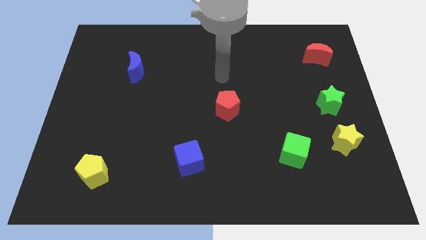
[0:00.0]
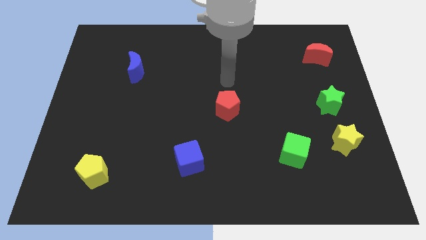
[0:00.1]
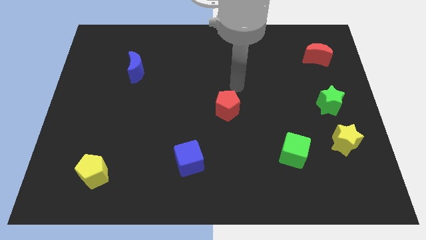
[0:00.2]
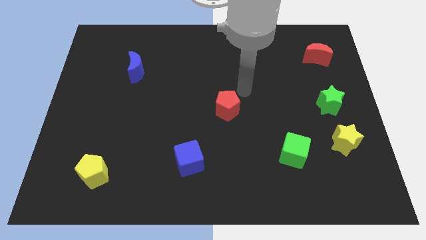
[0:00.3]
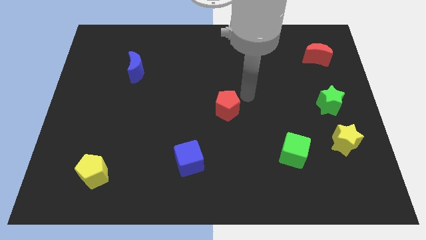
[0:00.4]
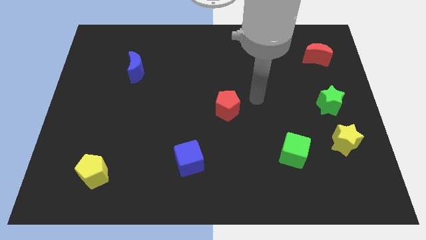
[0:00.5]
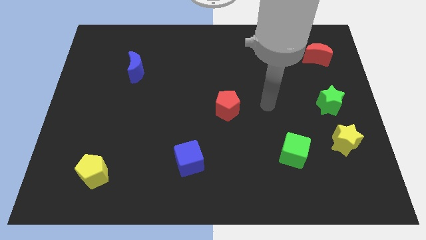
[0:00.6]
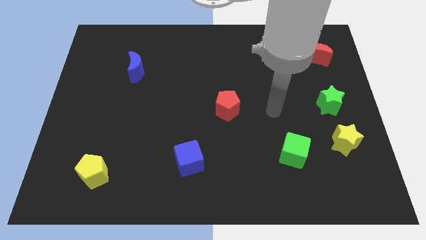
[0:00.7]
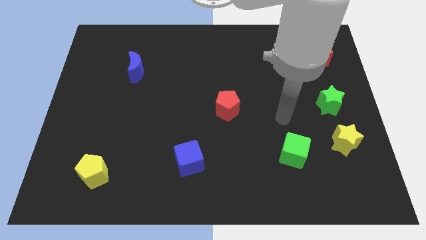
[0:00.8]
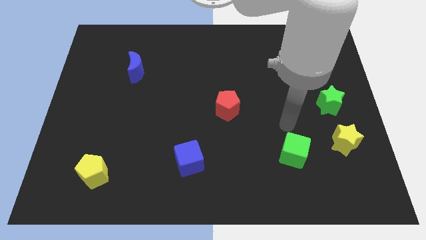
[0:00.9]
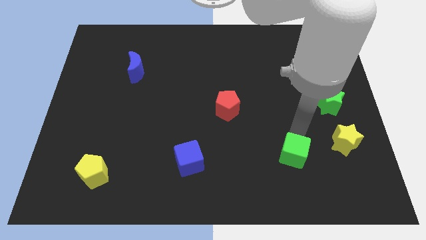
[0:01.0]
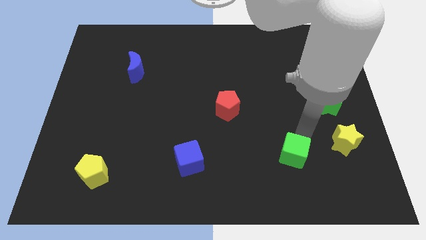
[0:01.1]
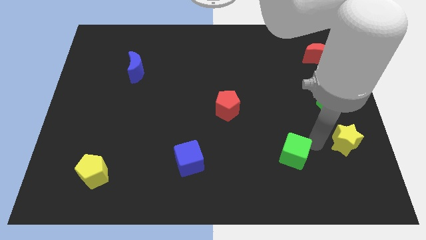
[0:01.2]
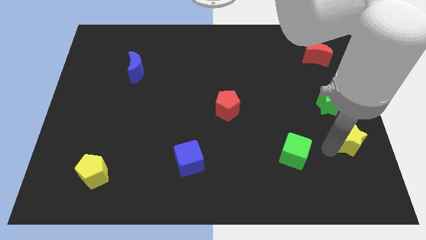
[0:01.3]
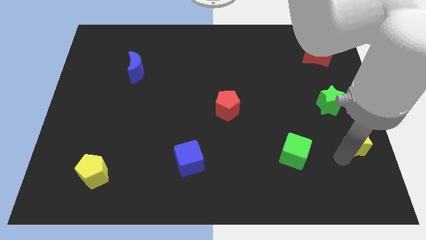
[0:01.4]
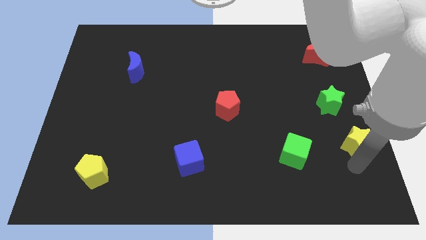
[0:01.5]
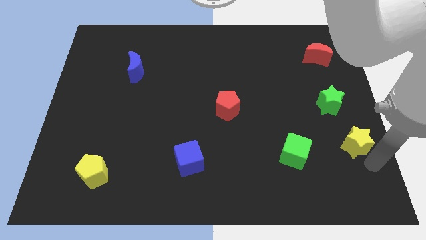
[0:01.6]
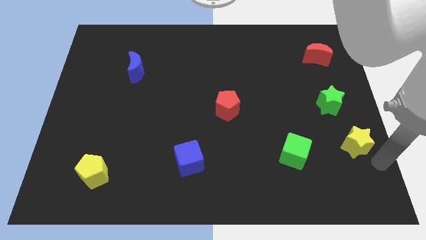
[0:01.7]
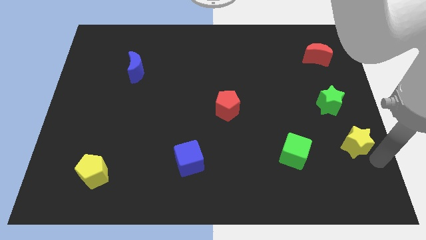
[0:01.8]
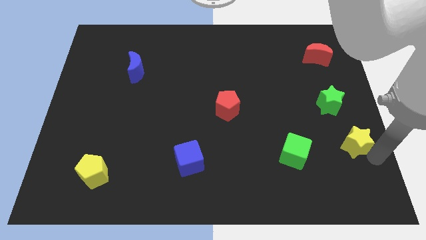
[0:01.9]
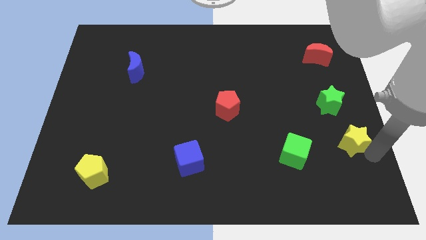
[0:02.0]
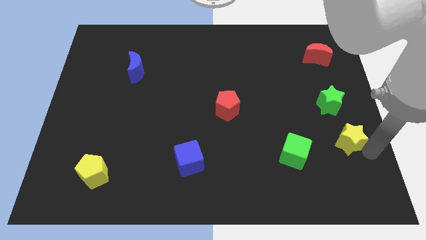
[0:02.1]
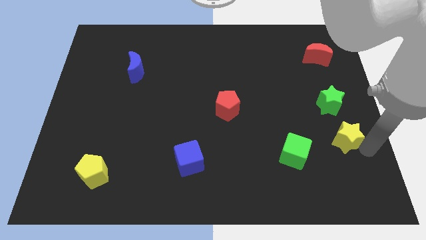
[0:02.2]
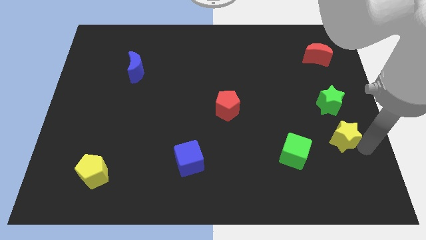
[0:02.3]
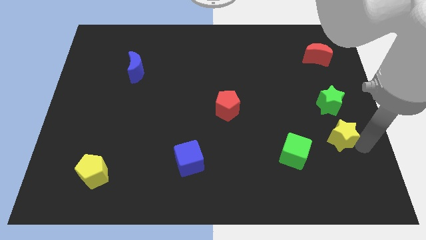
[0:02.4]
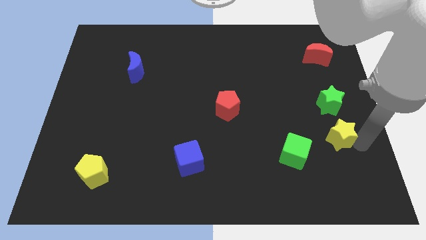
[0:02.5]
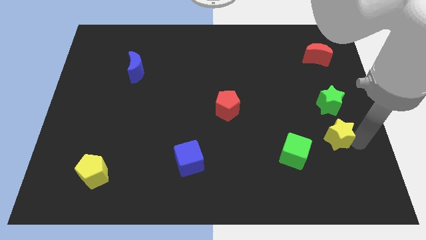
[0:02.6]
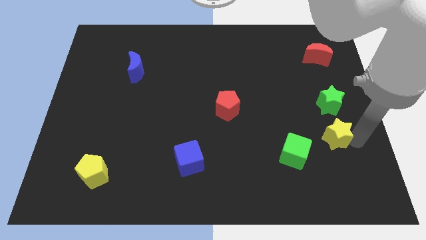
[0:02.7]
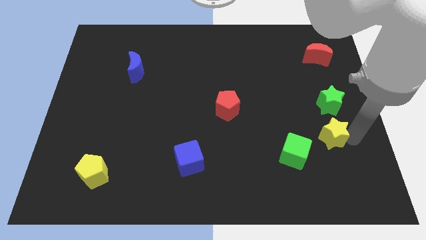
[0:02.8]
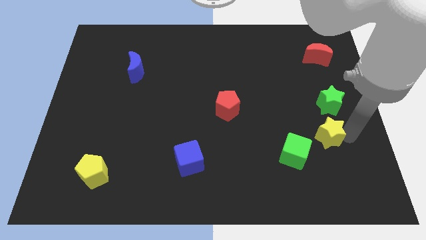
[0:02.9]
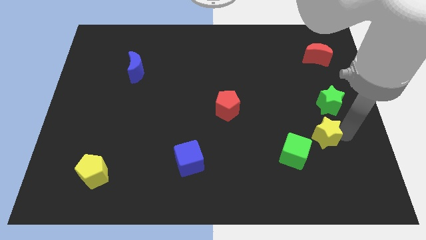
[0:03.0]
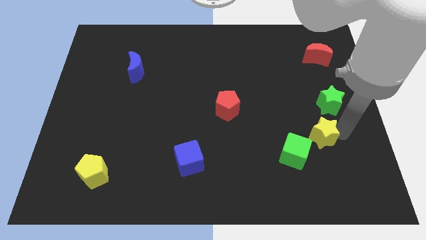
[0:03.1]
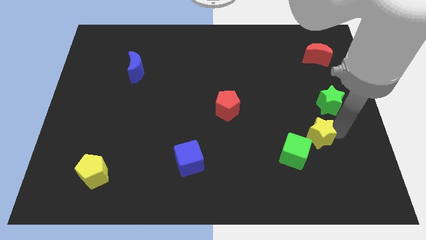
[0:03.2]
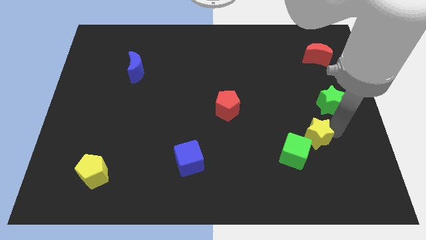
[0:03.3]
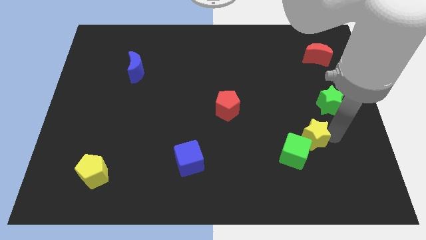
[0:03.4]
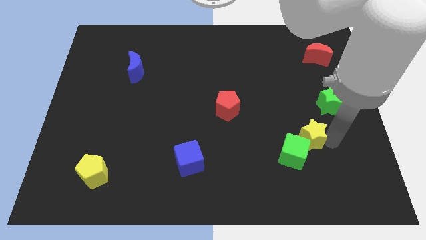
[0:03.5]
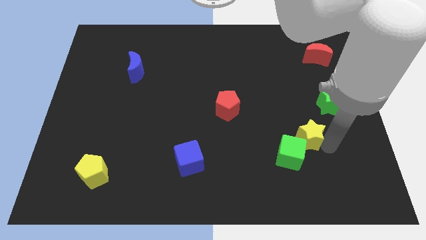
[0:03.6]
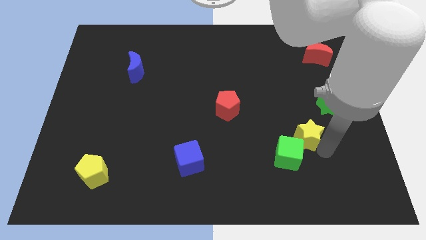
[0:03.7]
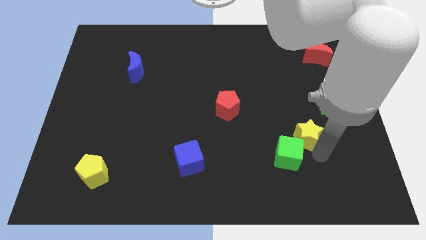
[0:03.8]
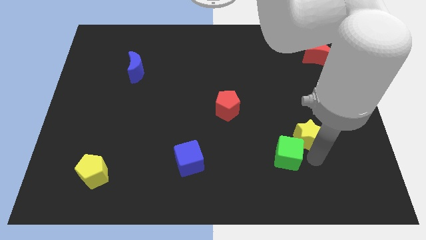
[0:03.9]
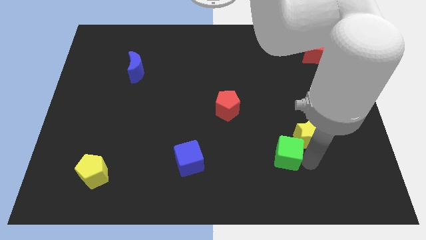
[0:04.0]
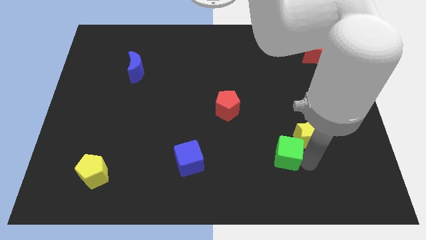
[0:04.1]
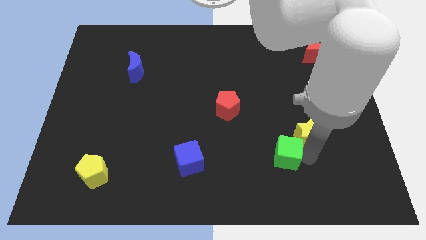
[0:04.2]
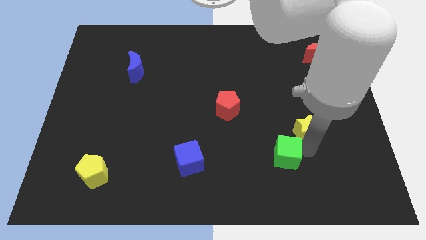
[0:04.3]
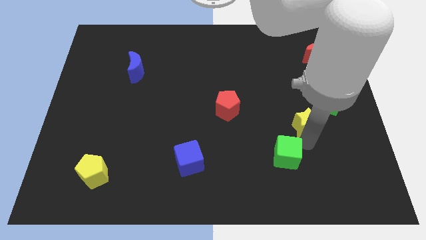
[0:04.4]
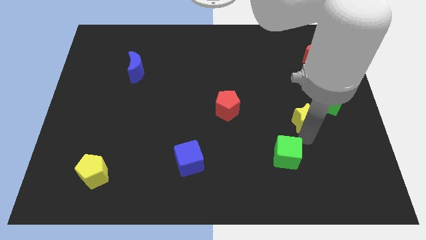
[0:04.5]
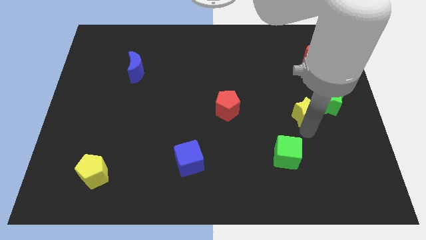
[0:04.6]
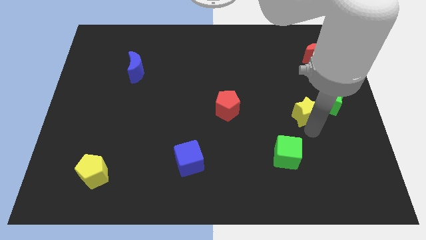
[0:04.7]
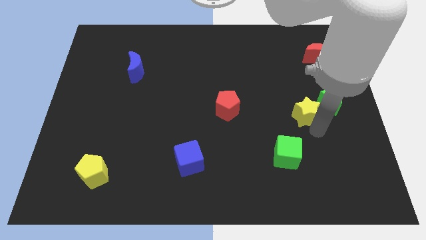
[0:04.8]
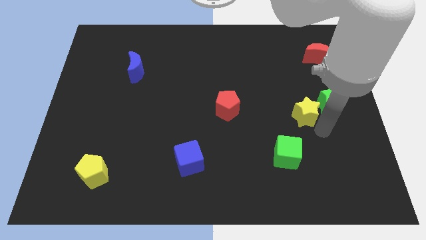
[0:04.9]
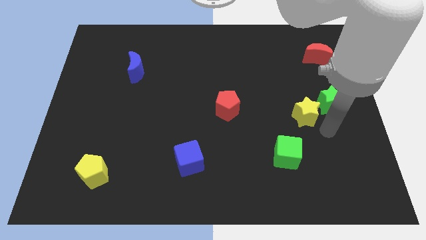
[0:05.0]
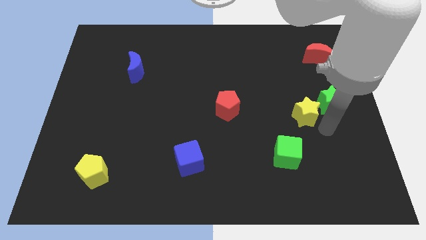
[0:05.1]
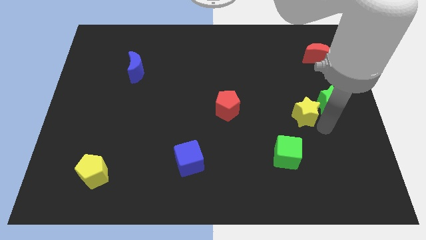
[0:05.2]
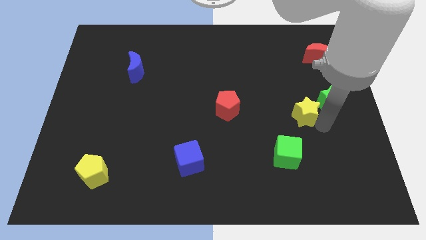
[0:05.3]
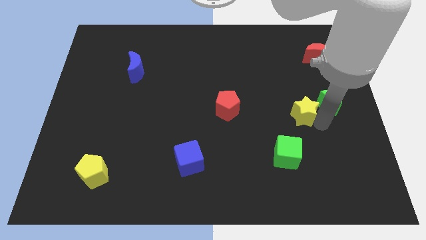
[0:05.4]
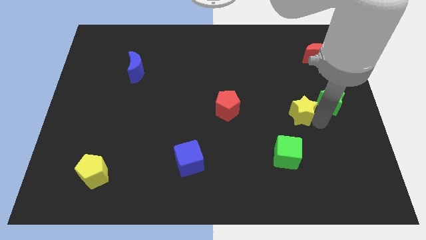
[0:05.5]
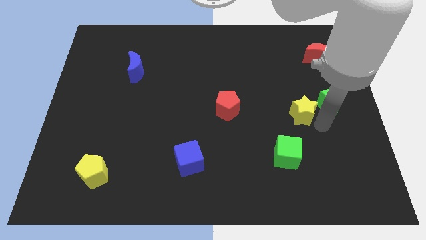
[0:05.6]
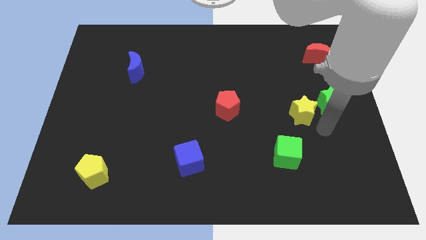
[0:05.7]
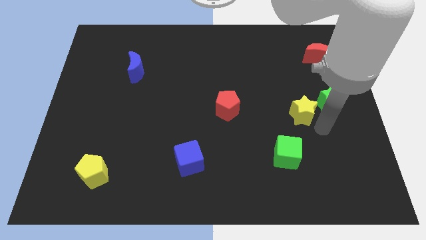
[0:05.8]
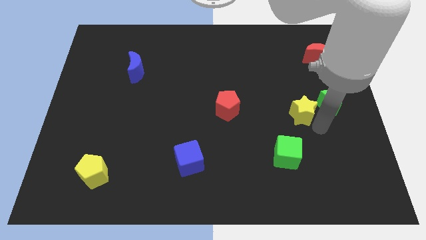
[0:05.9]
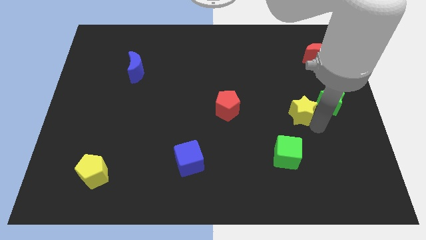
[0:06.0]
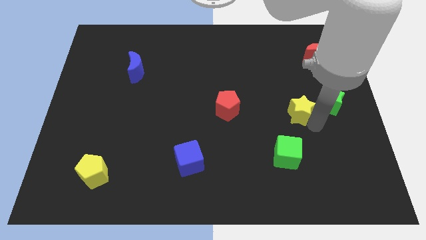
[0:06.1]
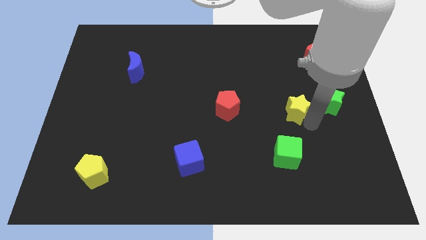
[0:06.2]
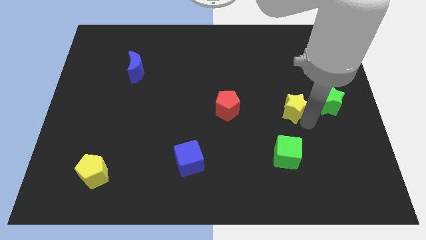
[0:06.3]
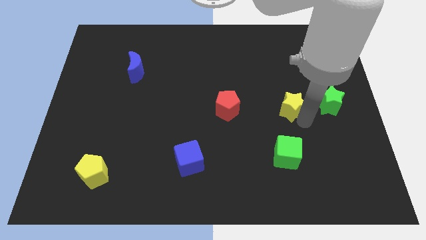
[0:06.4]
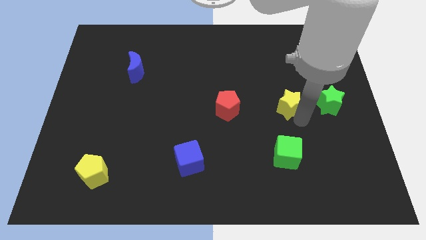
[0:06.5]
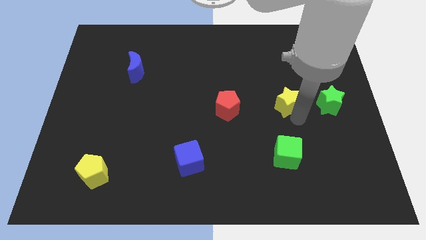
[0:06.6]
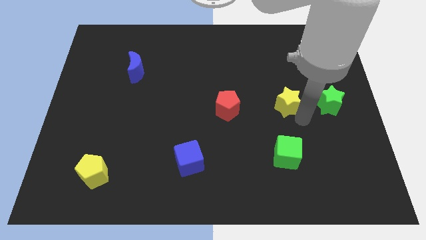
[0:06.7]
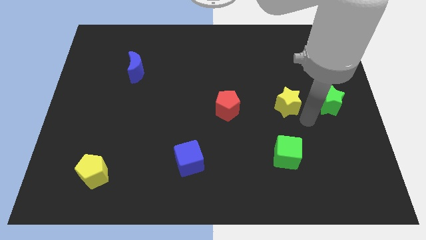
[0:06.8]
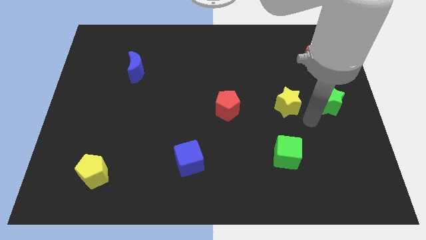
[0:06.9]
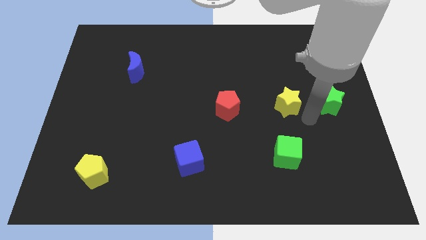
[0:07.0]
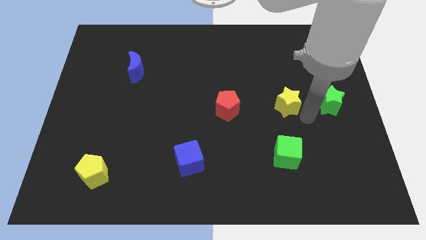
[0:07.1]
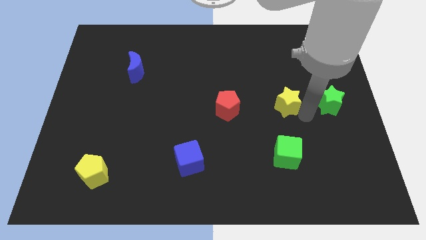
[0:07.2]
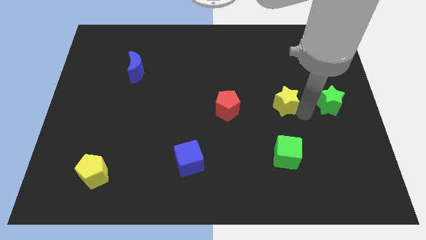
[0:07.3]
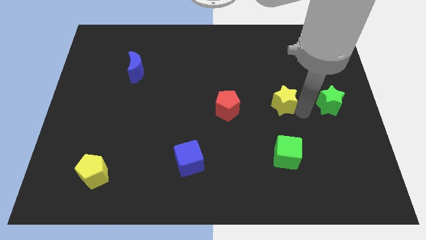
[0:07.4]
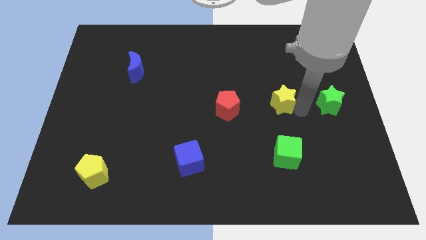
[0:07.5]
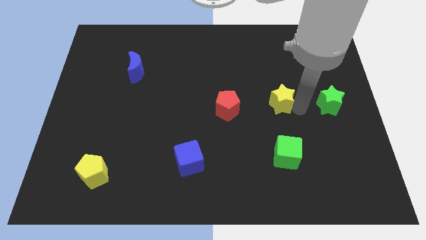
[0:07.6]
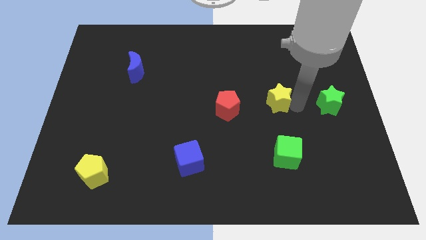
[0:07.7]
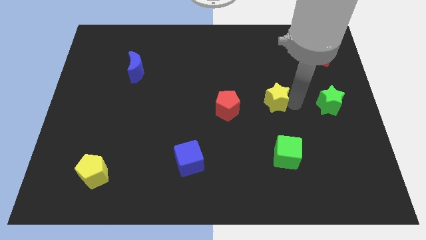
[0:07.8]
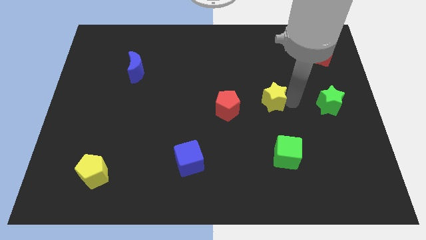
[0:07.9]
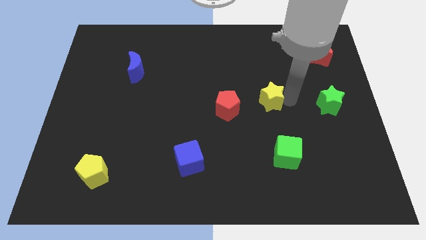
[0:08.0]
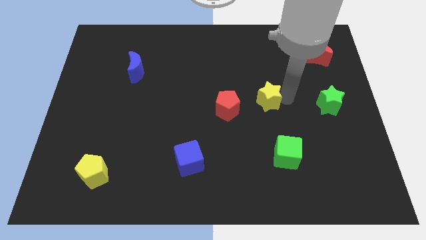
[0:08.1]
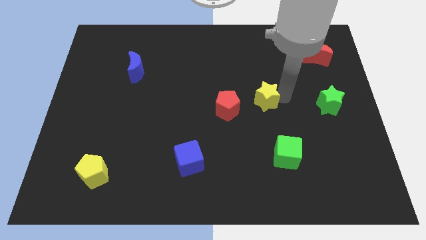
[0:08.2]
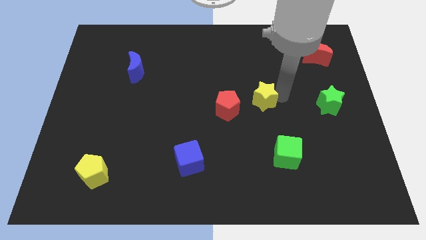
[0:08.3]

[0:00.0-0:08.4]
move the yellow star up and then left

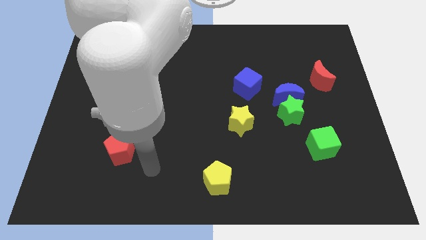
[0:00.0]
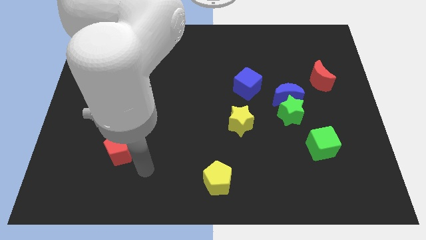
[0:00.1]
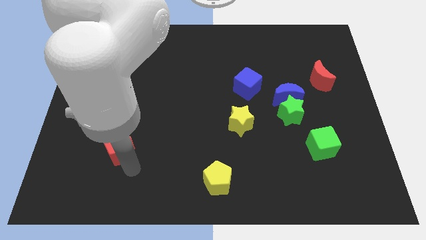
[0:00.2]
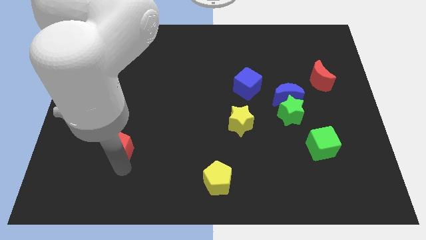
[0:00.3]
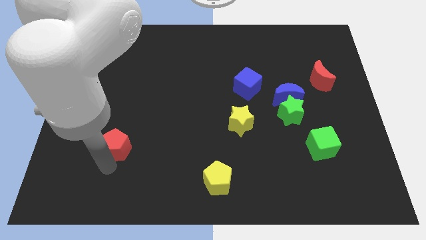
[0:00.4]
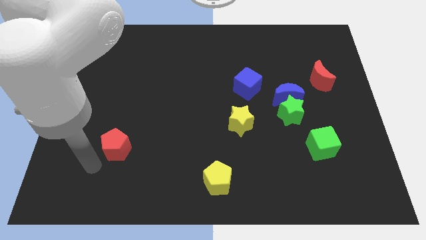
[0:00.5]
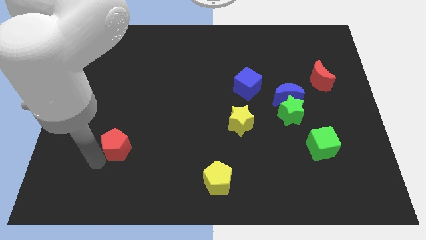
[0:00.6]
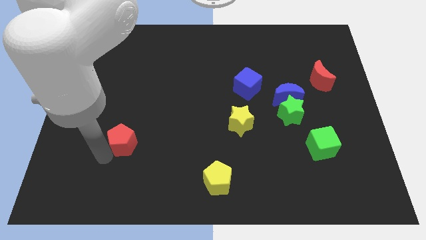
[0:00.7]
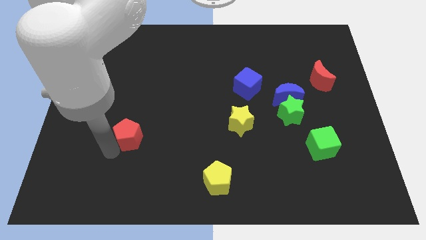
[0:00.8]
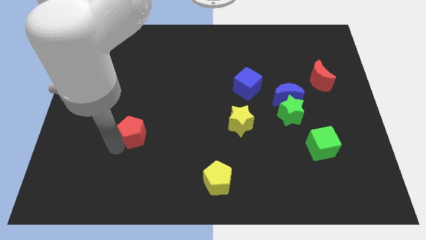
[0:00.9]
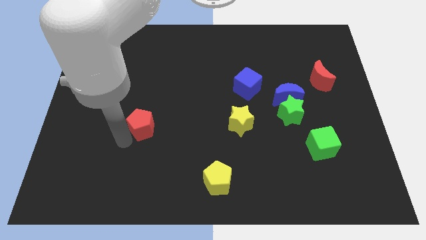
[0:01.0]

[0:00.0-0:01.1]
move the red pentagon diagonally up and to the right a bit
